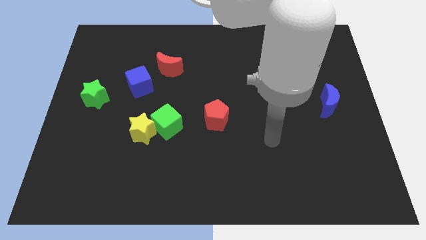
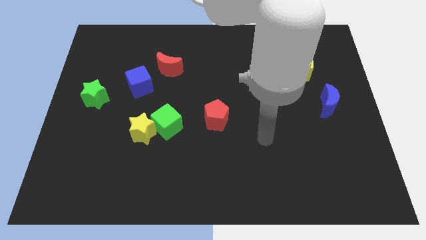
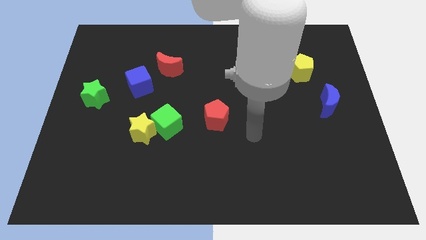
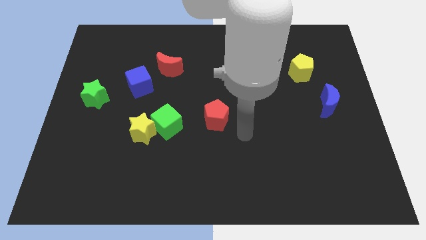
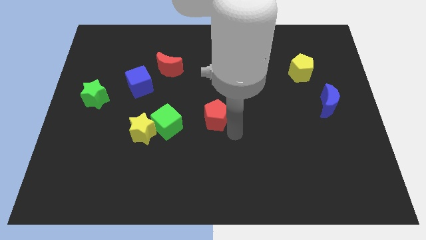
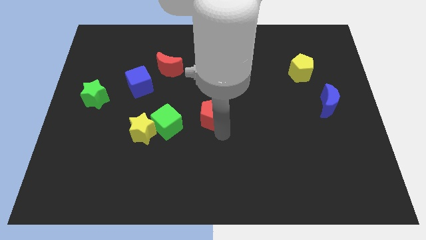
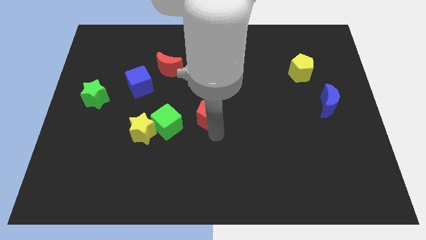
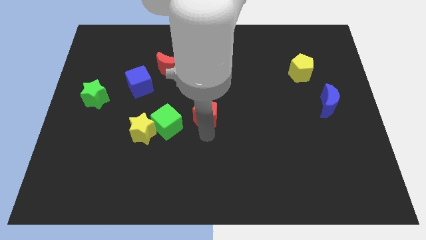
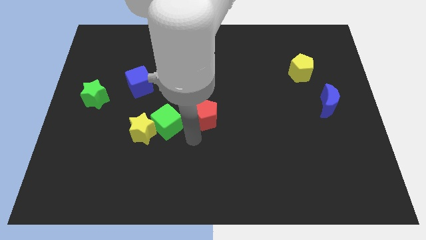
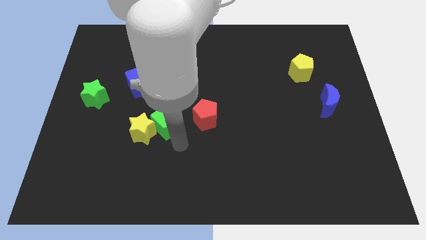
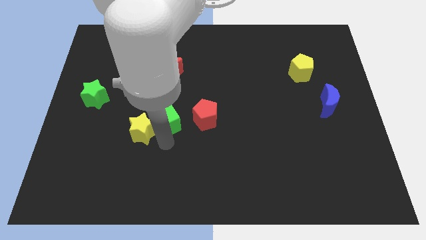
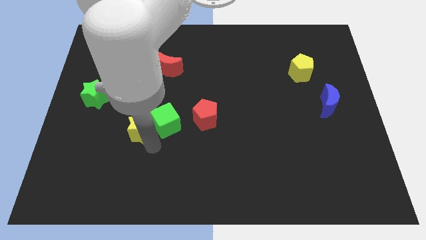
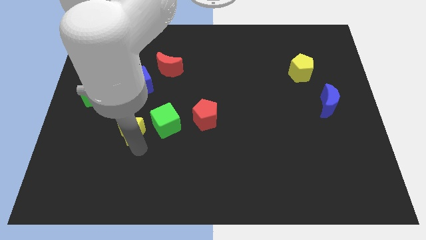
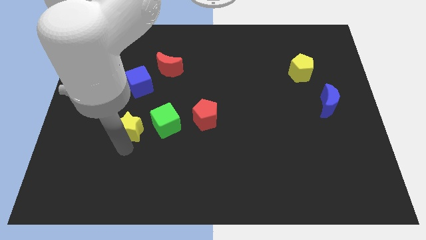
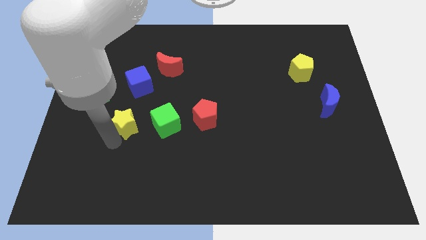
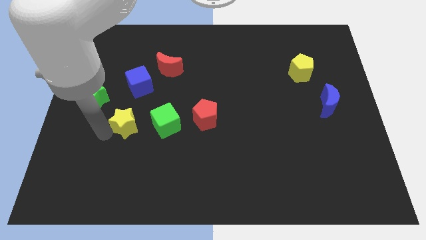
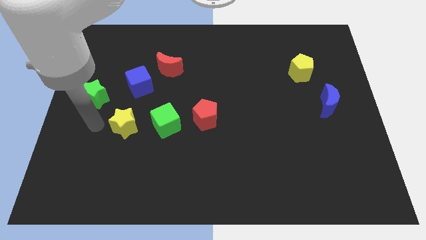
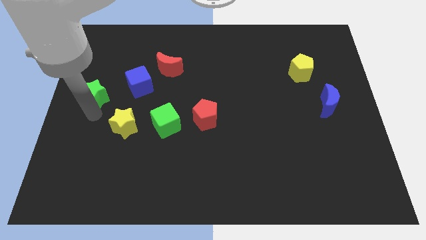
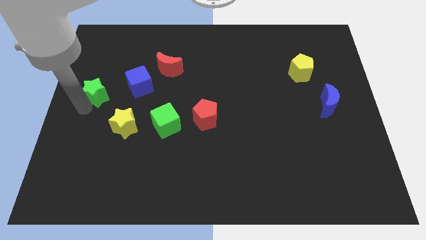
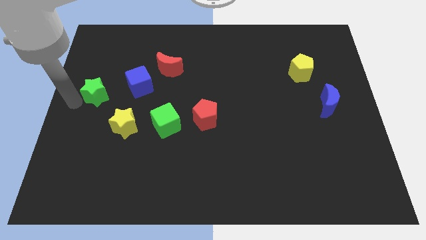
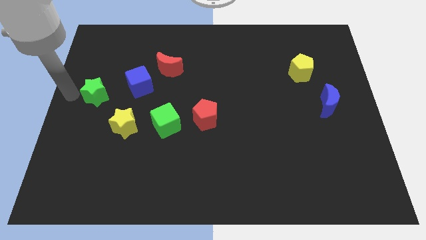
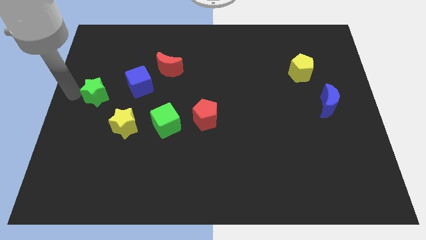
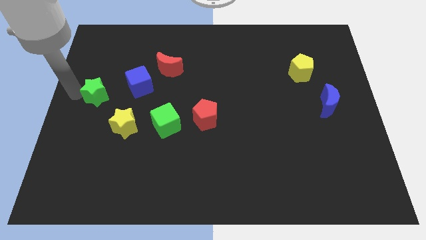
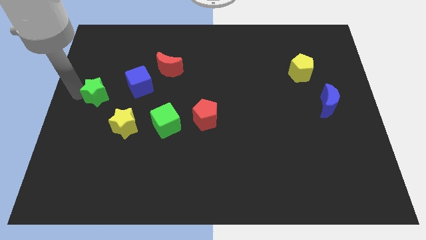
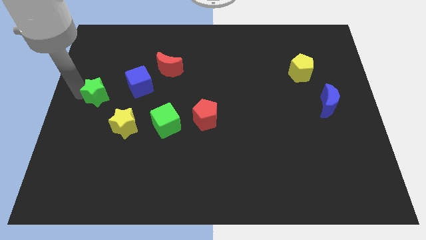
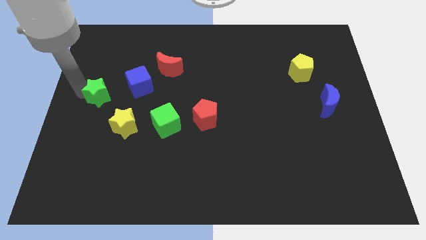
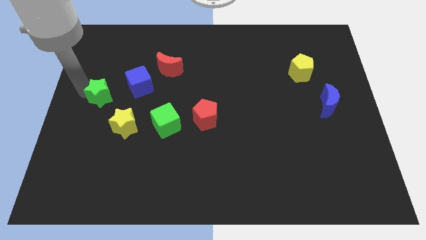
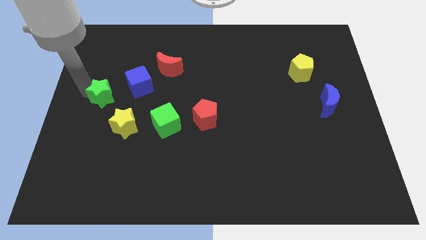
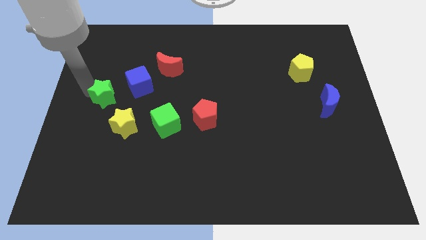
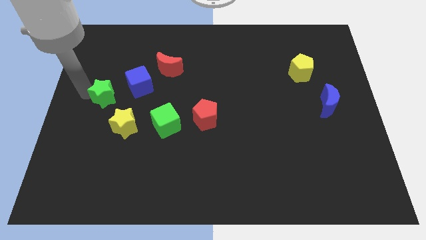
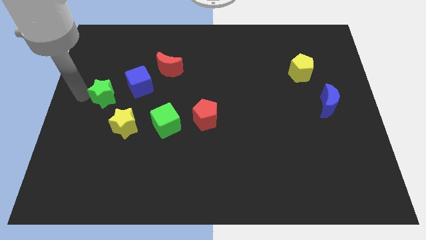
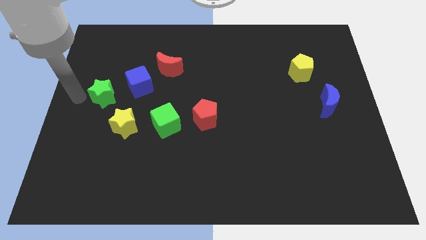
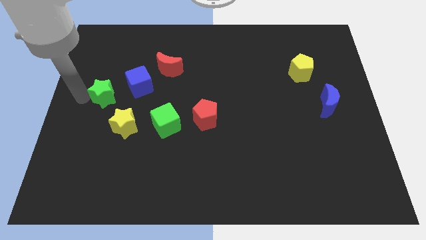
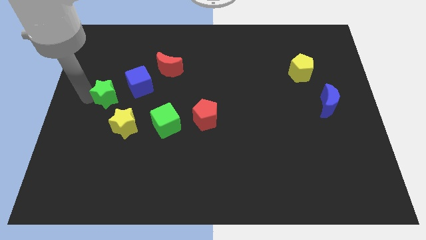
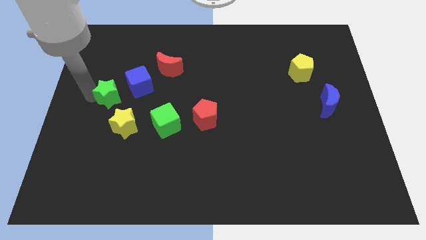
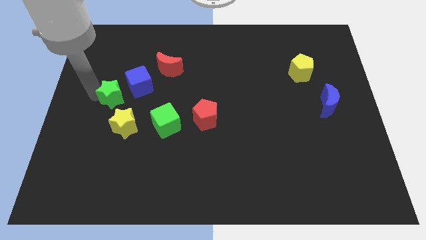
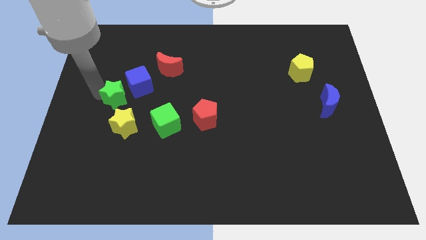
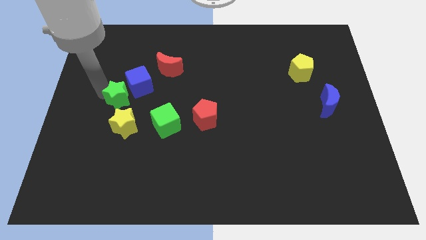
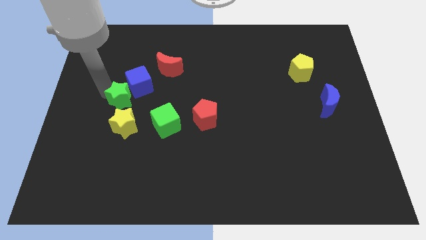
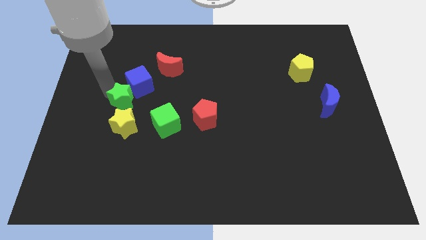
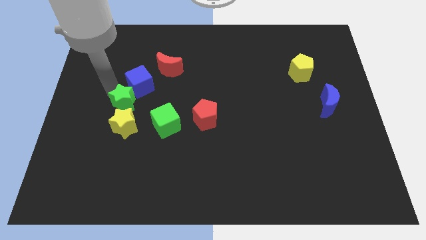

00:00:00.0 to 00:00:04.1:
push the green star to the top left side of the green cube

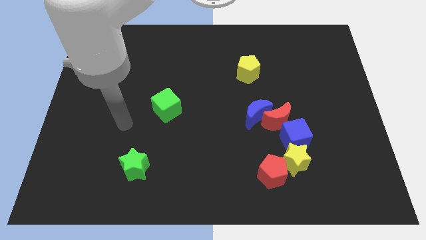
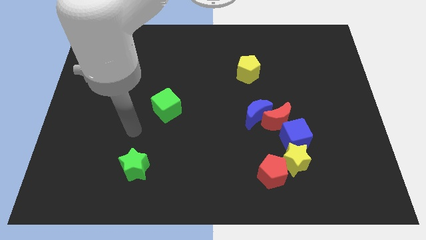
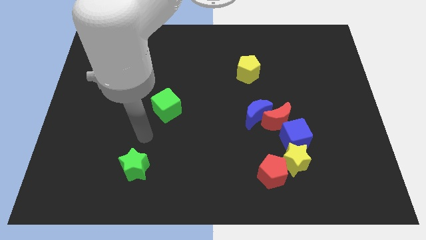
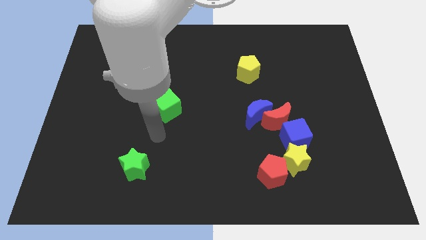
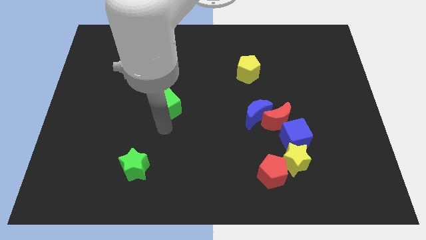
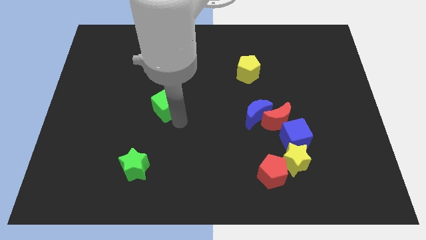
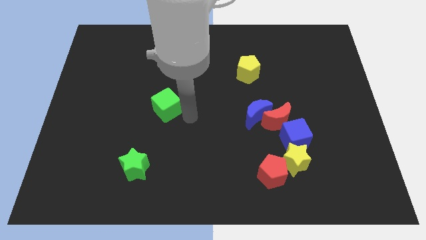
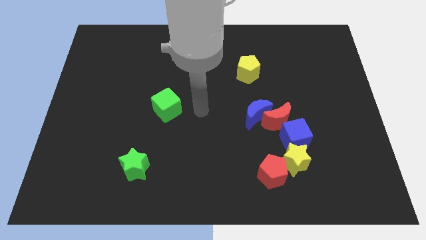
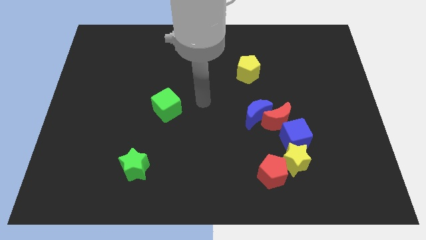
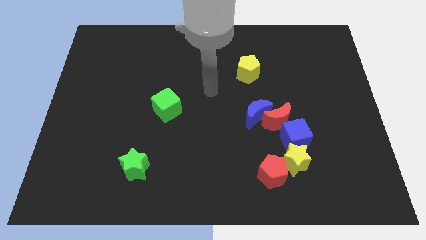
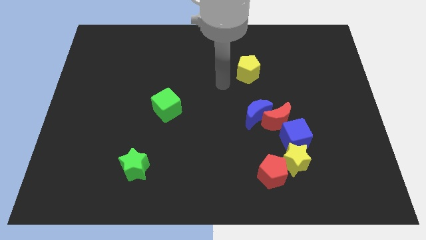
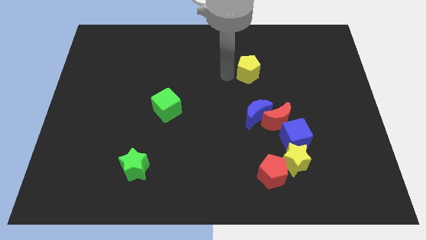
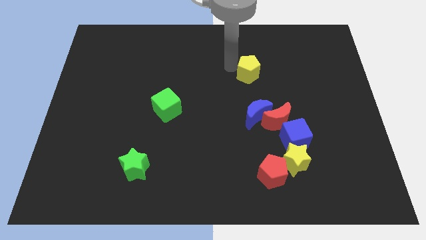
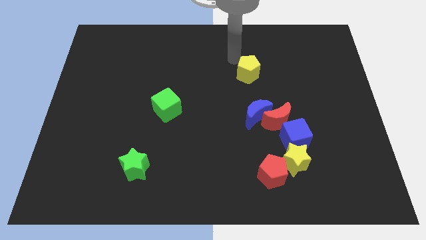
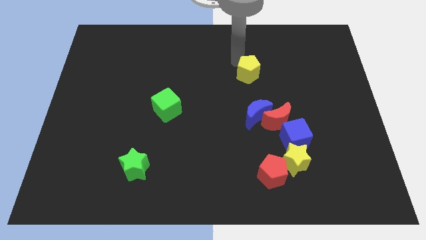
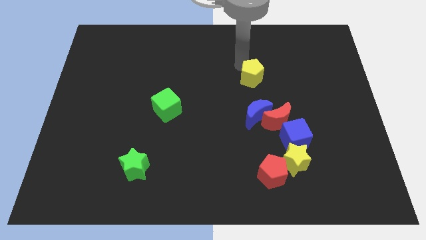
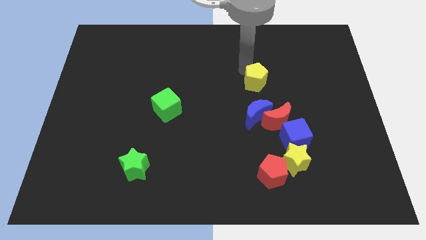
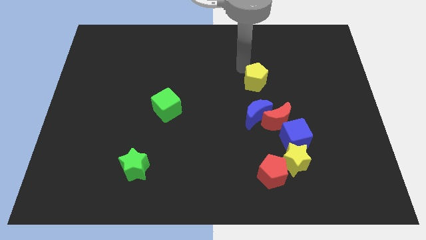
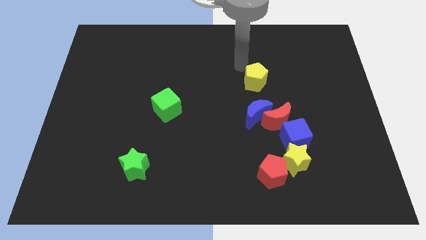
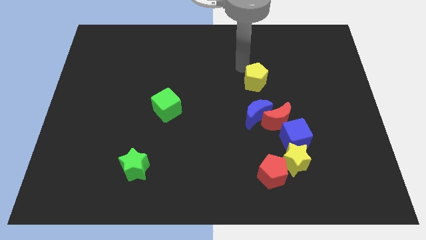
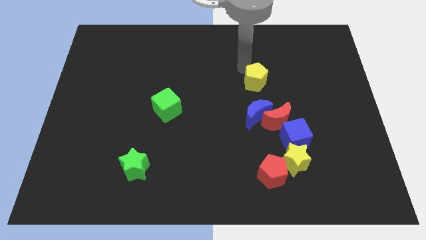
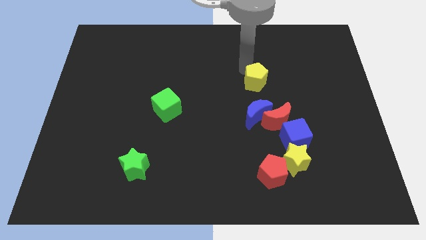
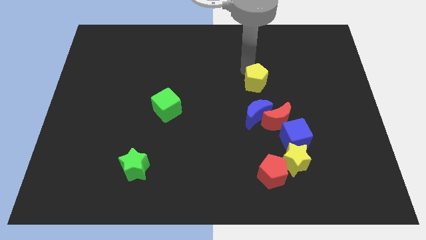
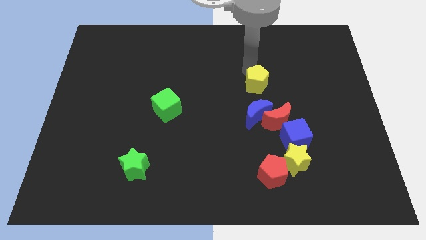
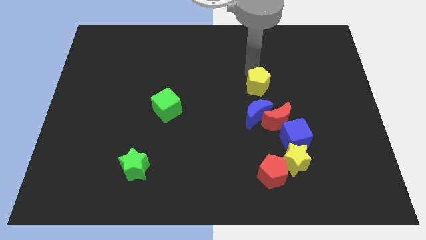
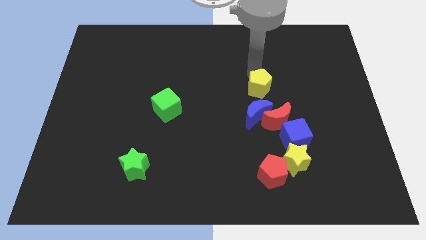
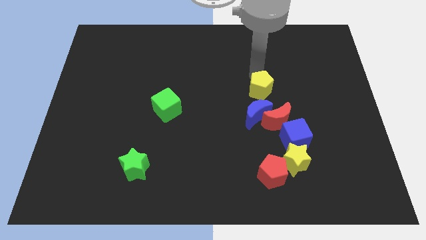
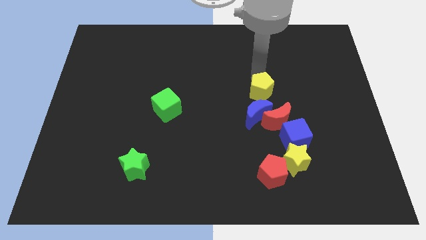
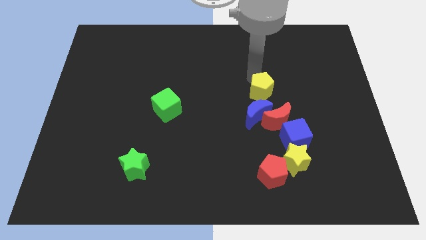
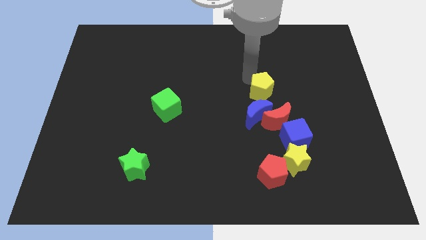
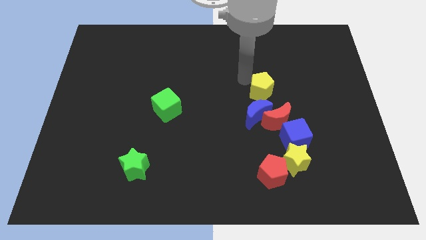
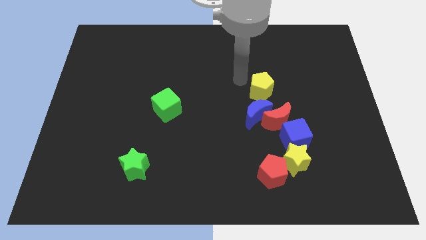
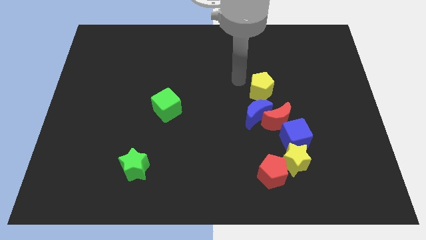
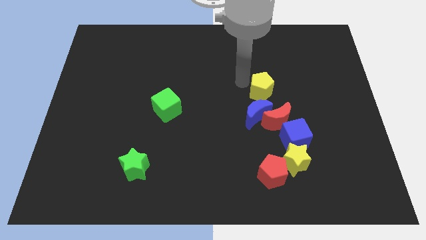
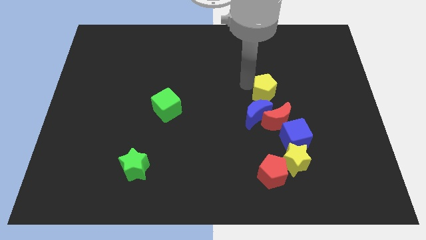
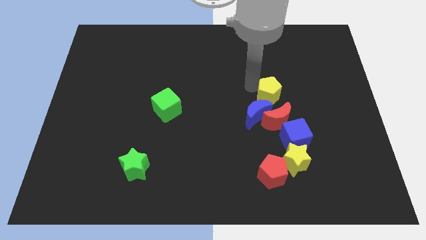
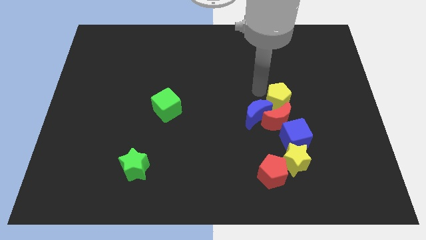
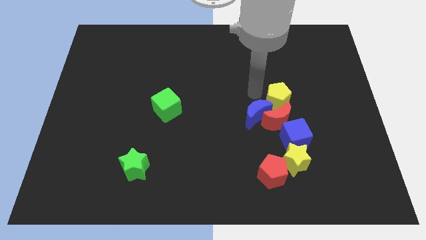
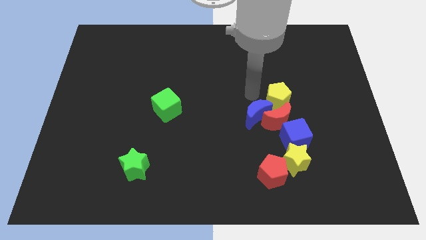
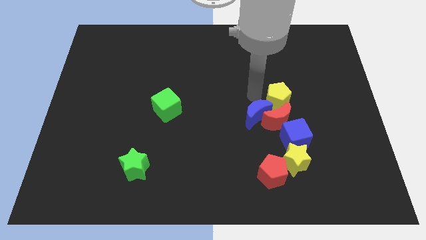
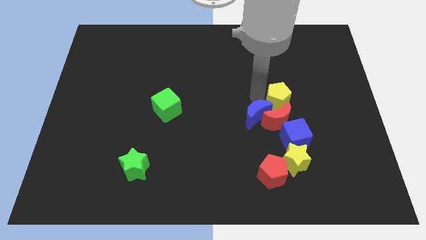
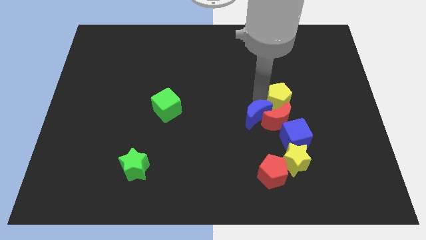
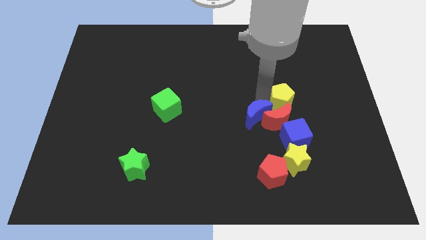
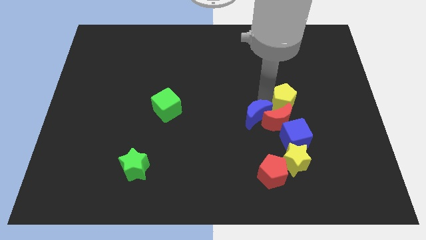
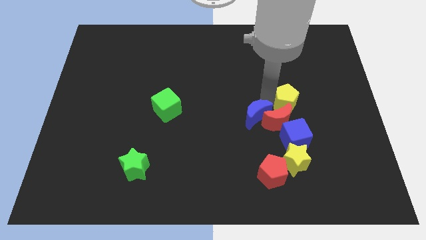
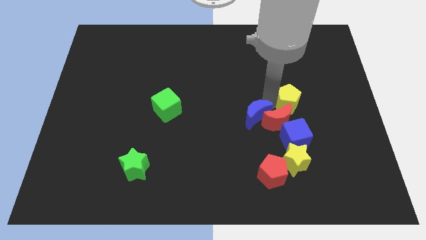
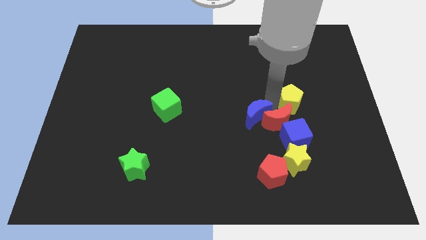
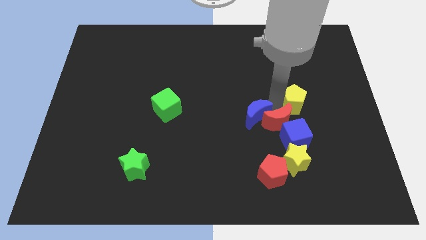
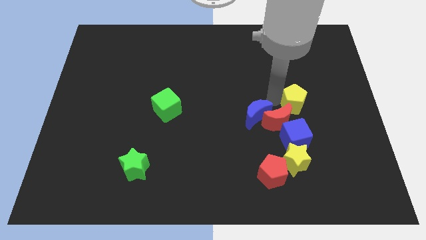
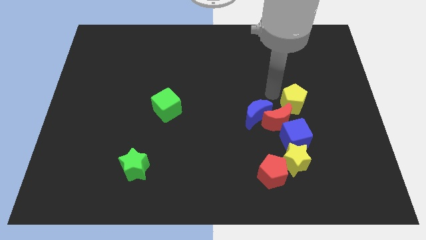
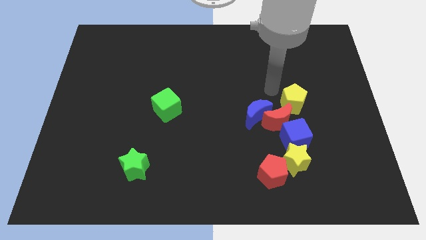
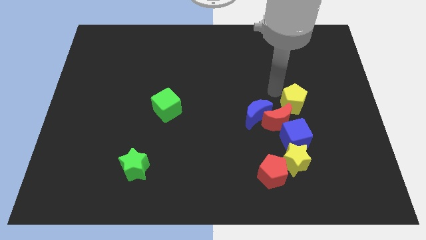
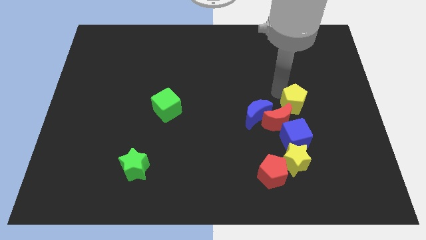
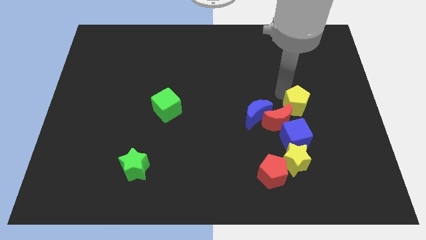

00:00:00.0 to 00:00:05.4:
put the yellow pentagon right of the red moon
